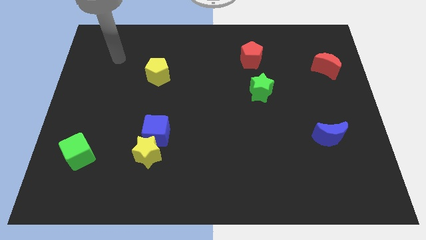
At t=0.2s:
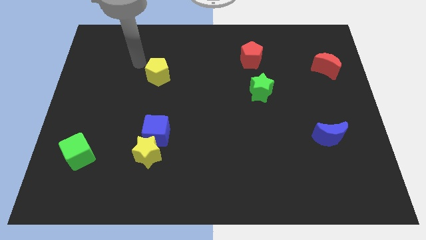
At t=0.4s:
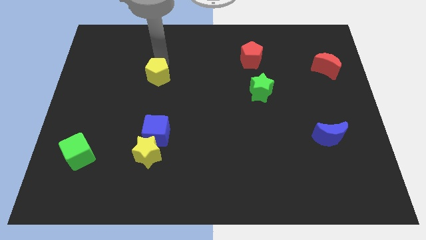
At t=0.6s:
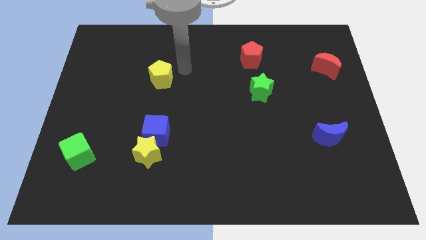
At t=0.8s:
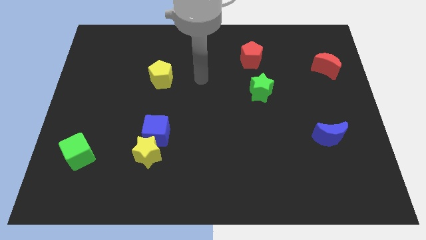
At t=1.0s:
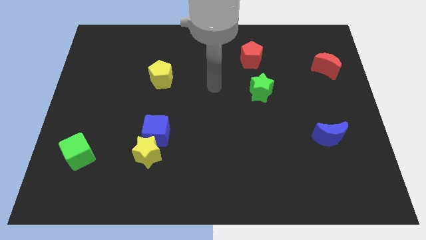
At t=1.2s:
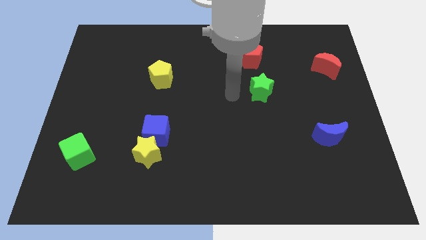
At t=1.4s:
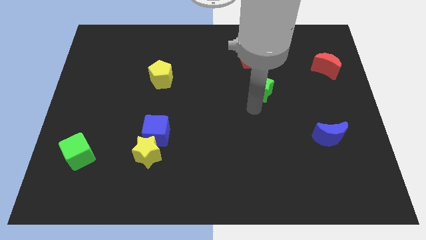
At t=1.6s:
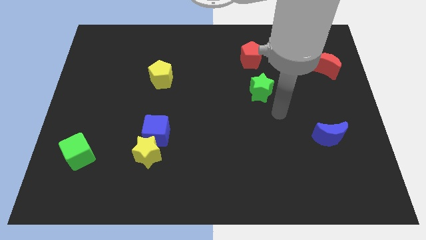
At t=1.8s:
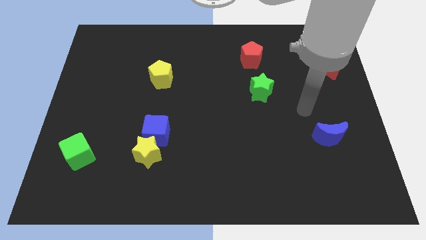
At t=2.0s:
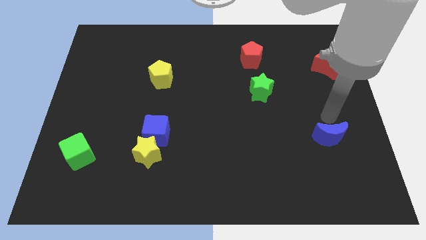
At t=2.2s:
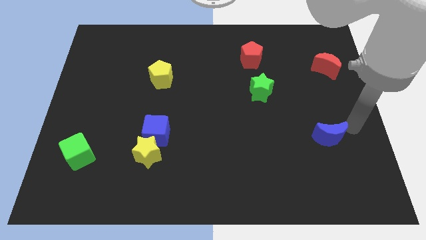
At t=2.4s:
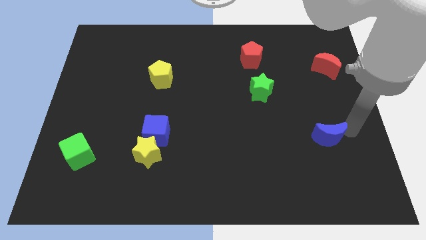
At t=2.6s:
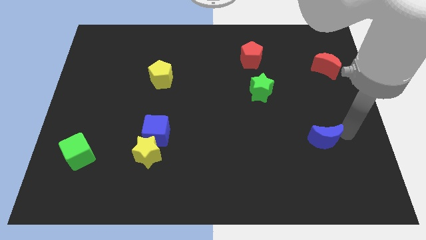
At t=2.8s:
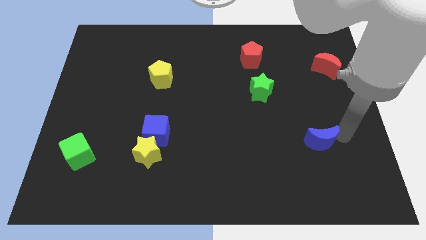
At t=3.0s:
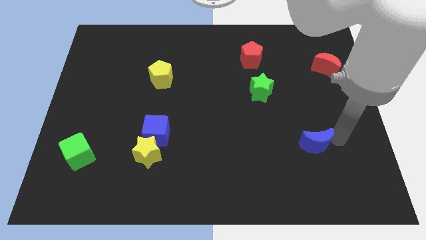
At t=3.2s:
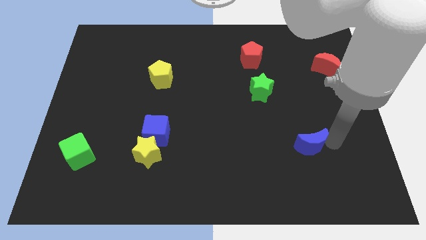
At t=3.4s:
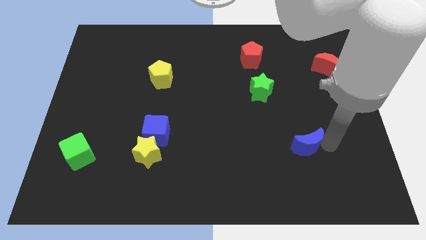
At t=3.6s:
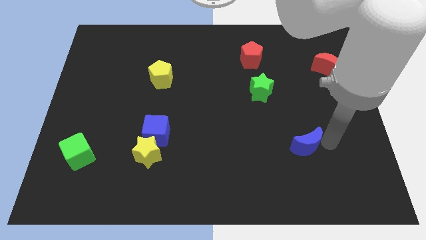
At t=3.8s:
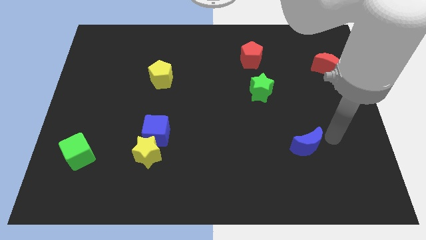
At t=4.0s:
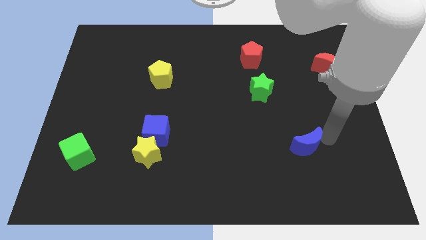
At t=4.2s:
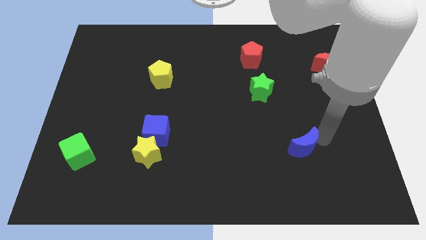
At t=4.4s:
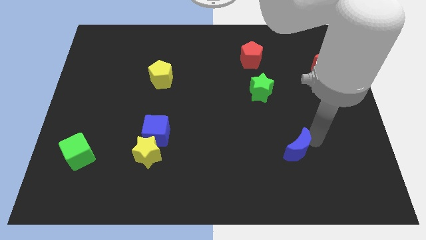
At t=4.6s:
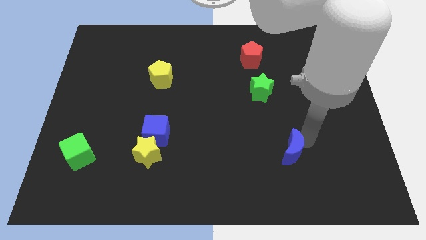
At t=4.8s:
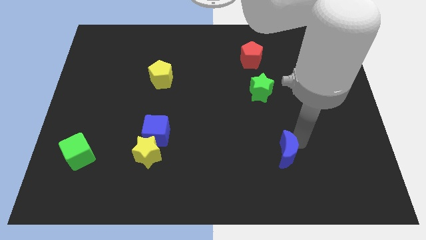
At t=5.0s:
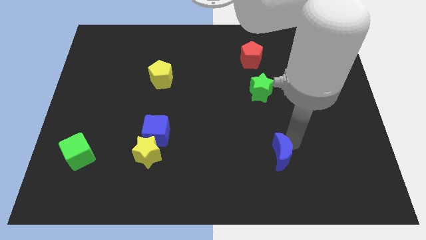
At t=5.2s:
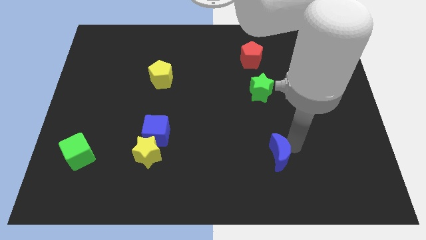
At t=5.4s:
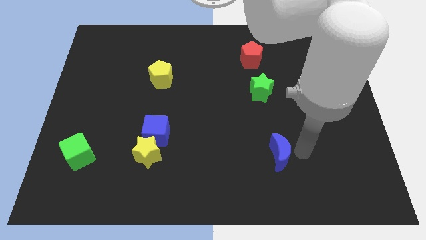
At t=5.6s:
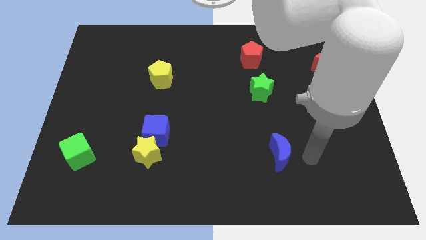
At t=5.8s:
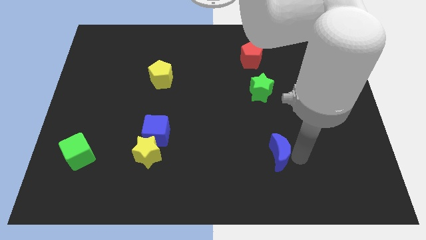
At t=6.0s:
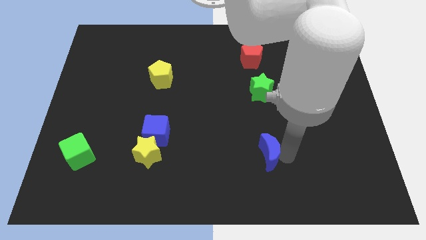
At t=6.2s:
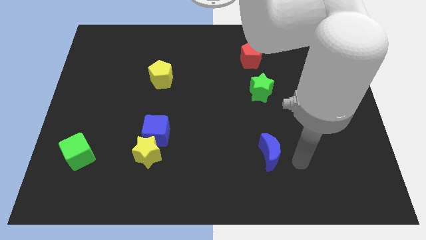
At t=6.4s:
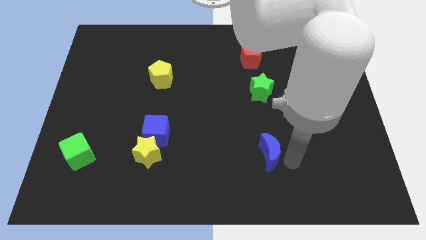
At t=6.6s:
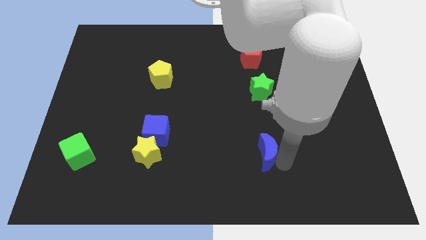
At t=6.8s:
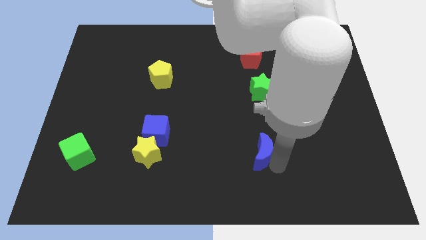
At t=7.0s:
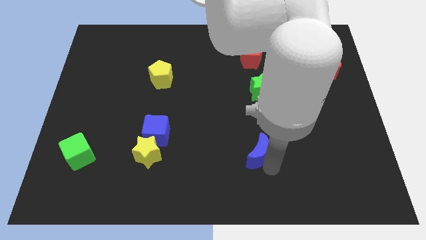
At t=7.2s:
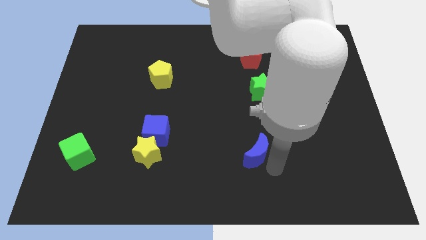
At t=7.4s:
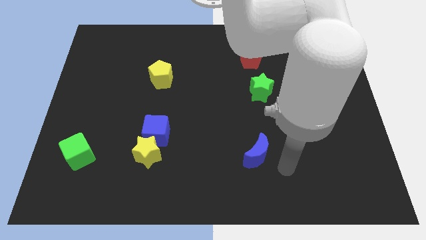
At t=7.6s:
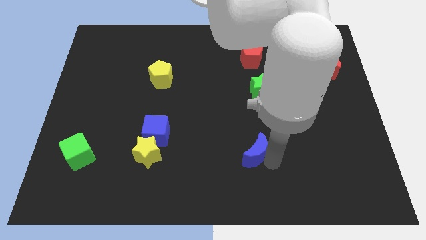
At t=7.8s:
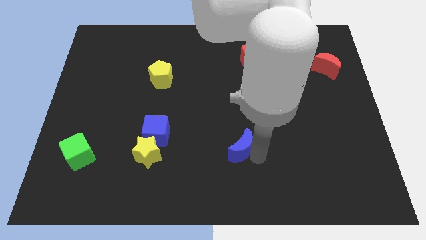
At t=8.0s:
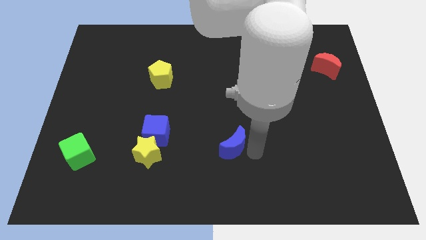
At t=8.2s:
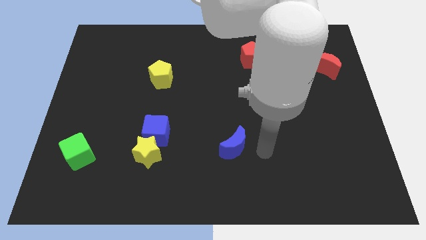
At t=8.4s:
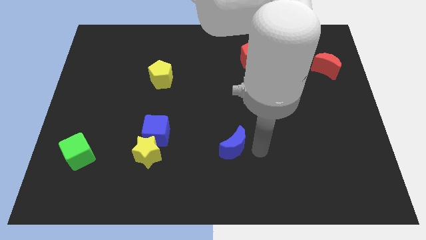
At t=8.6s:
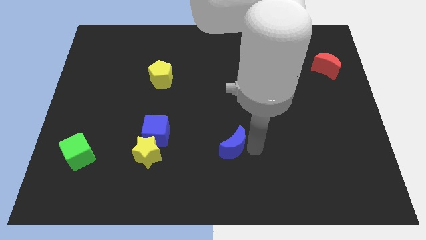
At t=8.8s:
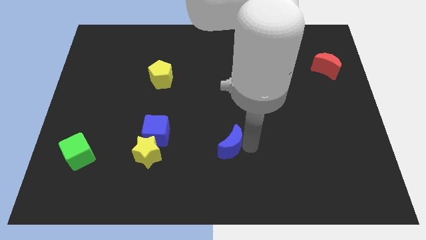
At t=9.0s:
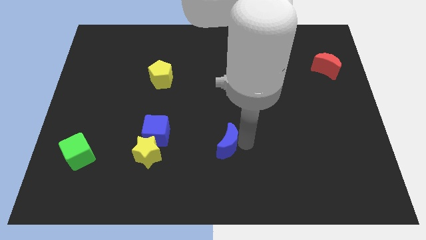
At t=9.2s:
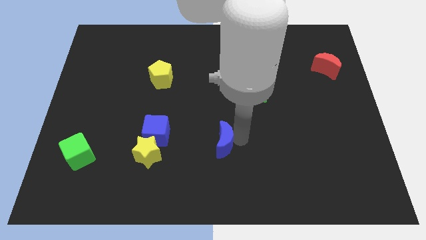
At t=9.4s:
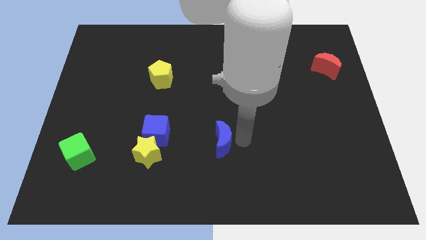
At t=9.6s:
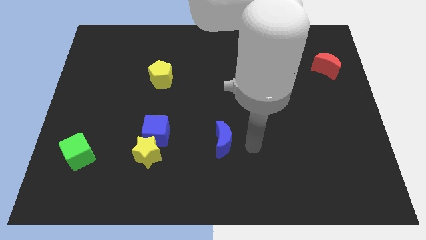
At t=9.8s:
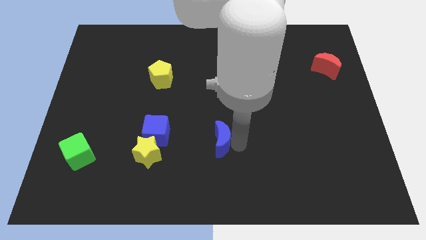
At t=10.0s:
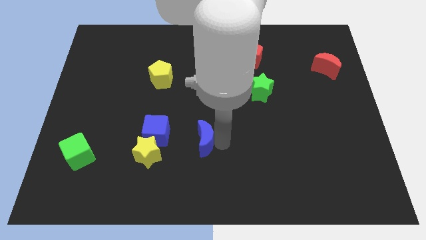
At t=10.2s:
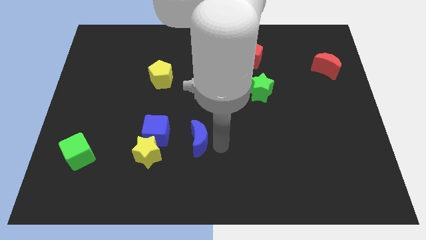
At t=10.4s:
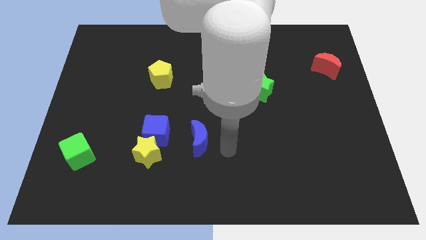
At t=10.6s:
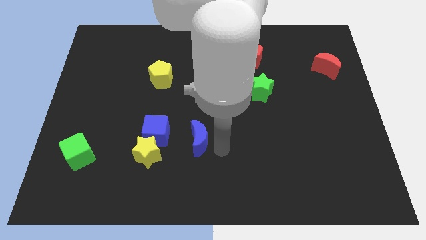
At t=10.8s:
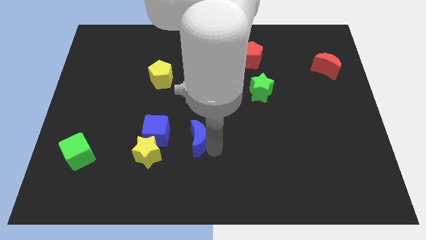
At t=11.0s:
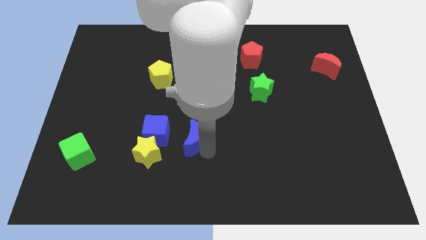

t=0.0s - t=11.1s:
push the blue moon to the top right side of the yellow star

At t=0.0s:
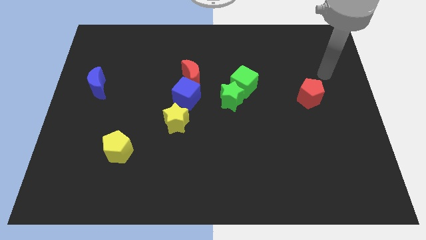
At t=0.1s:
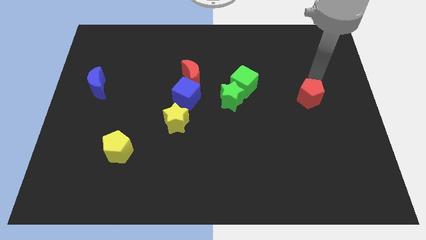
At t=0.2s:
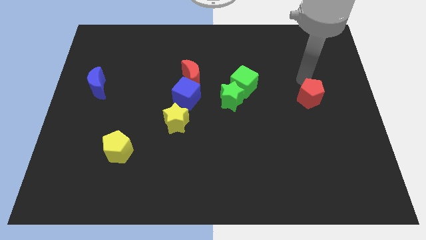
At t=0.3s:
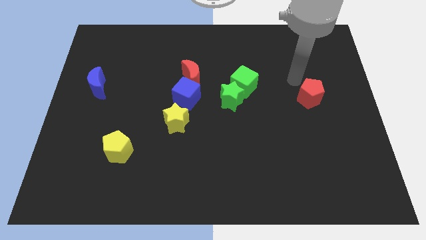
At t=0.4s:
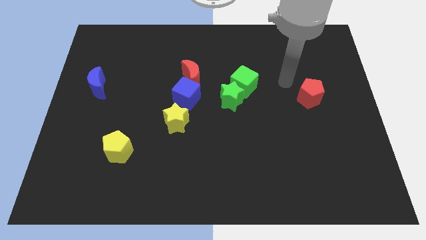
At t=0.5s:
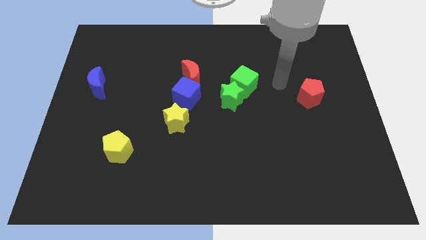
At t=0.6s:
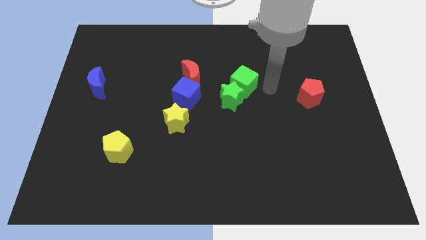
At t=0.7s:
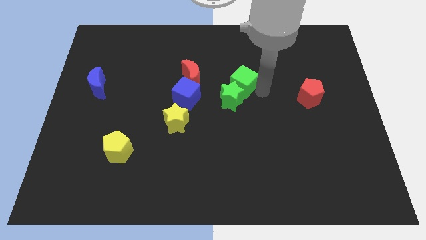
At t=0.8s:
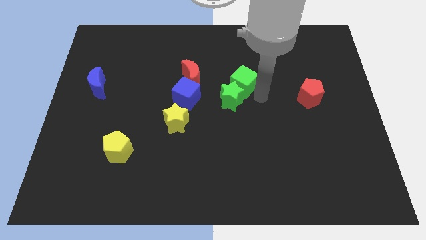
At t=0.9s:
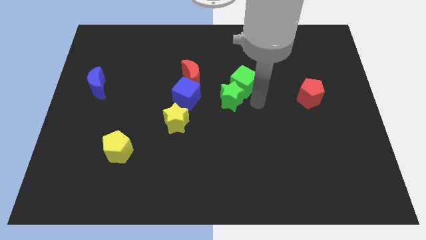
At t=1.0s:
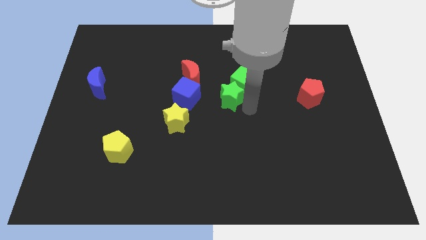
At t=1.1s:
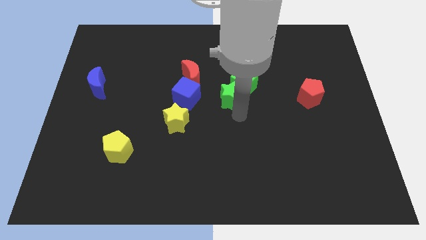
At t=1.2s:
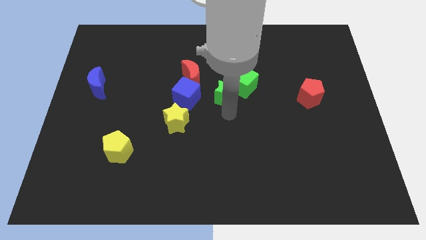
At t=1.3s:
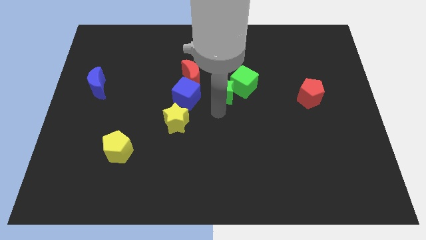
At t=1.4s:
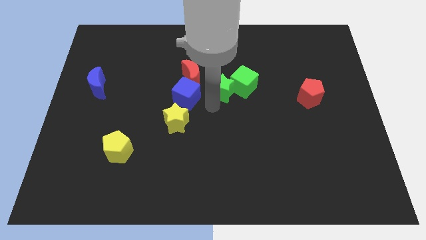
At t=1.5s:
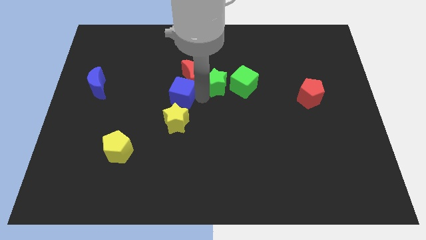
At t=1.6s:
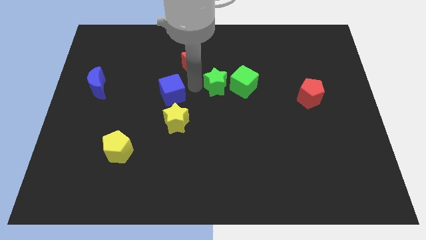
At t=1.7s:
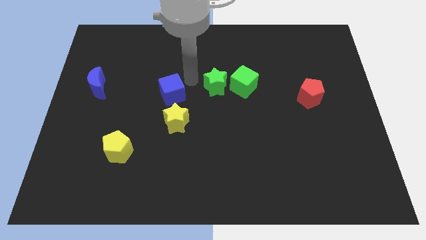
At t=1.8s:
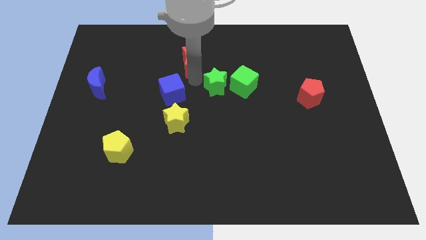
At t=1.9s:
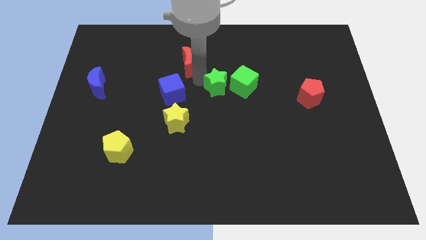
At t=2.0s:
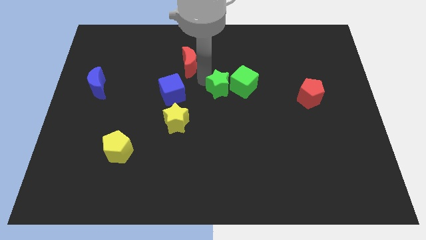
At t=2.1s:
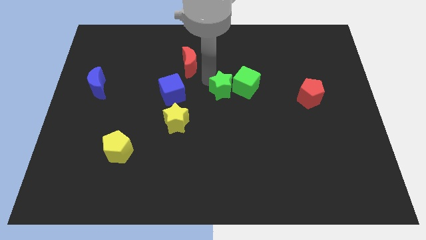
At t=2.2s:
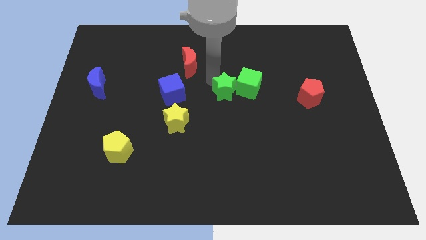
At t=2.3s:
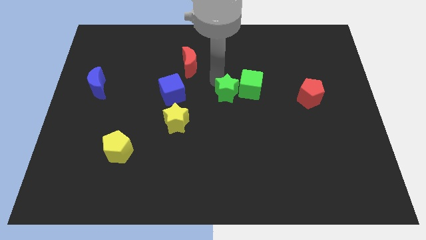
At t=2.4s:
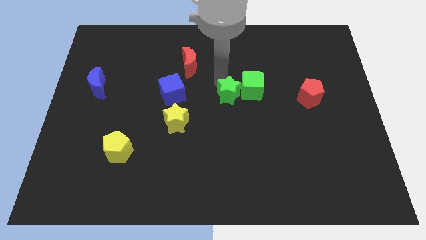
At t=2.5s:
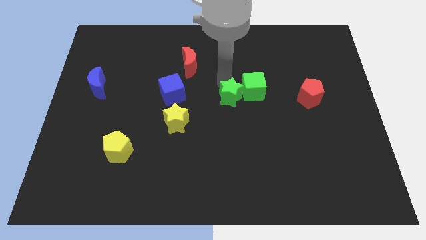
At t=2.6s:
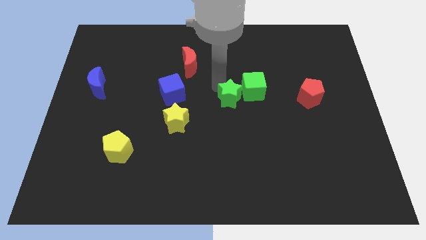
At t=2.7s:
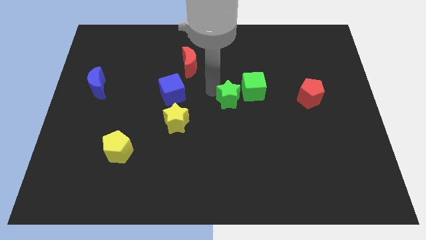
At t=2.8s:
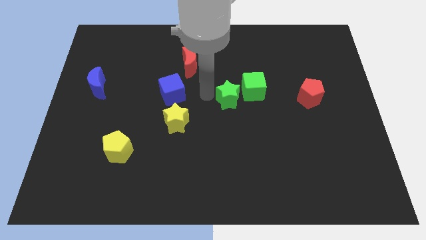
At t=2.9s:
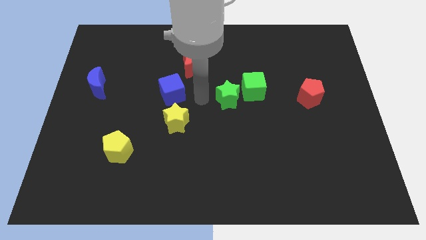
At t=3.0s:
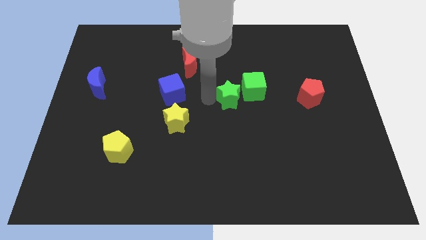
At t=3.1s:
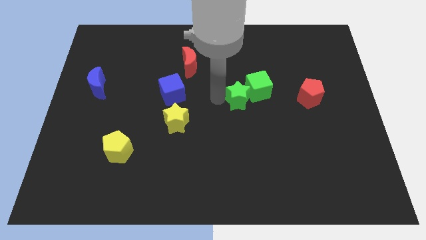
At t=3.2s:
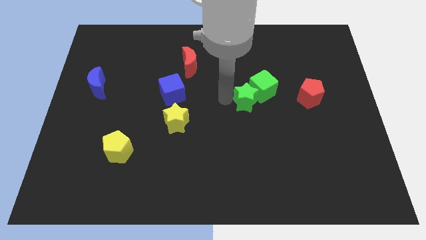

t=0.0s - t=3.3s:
push the green star just left of the red pentagon
